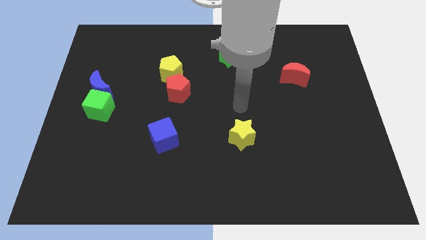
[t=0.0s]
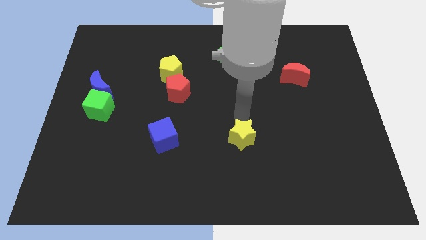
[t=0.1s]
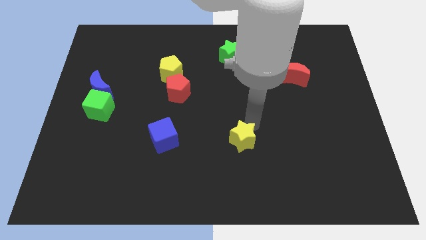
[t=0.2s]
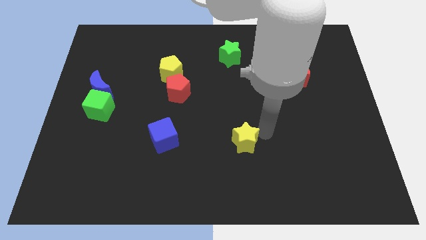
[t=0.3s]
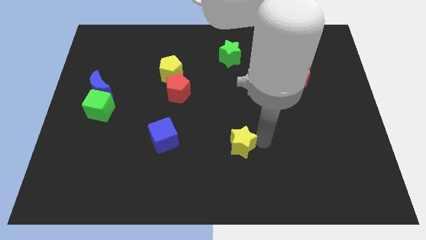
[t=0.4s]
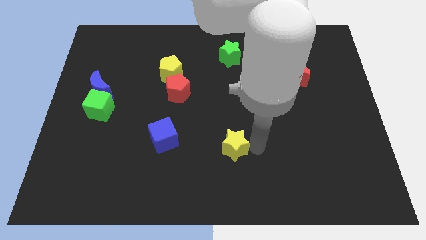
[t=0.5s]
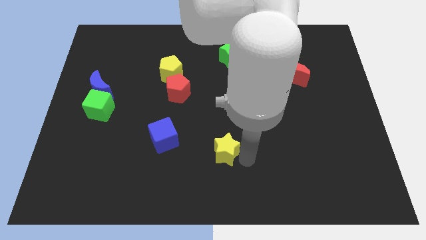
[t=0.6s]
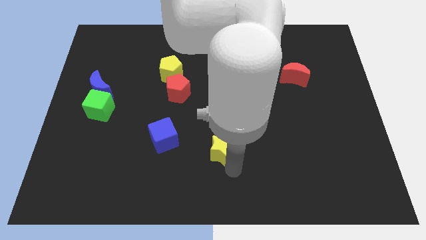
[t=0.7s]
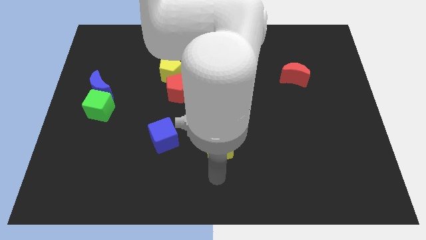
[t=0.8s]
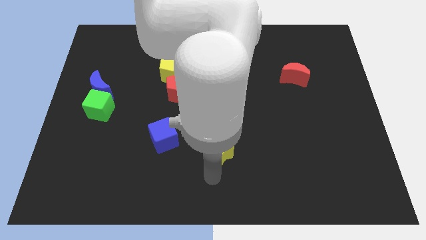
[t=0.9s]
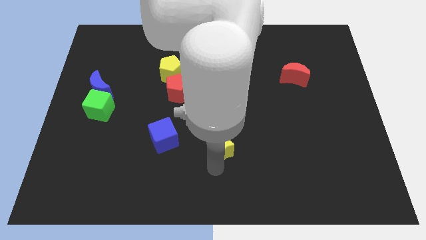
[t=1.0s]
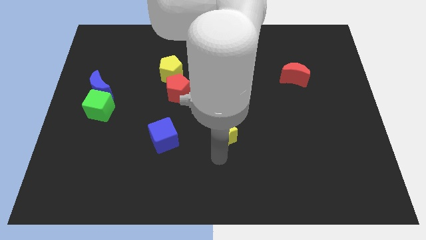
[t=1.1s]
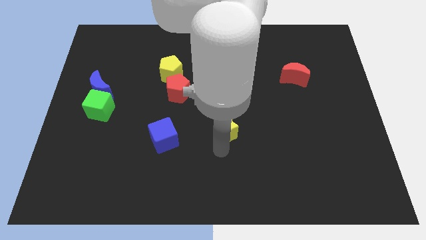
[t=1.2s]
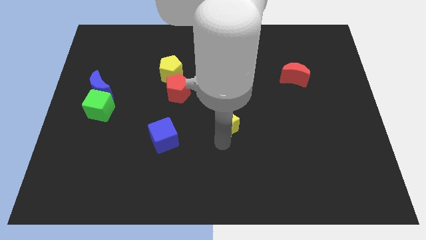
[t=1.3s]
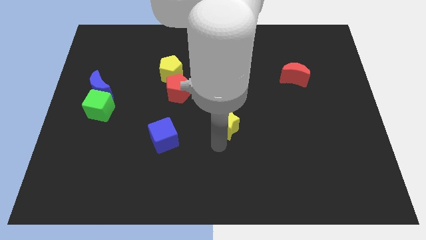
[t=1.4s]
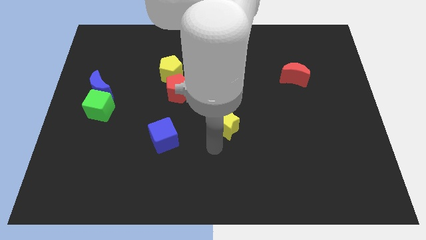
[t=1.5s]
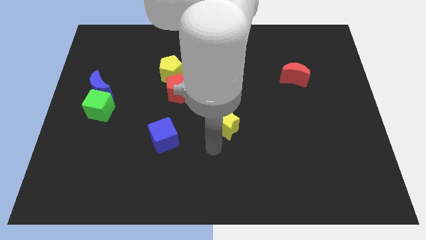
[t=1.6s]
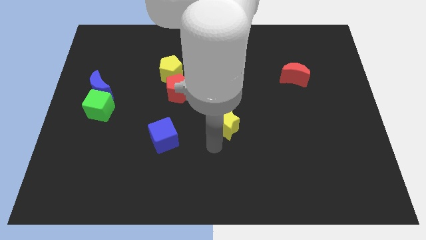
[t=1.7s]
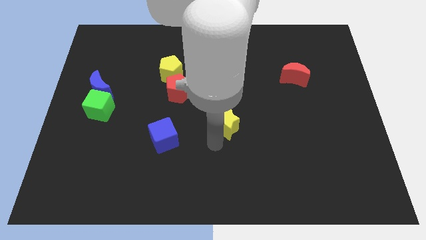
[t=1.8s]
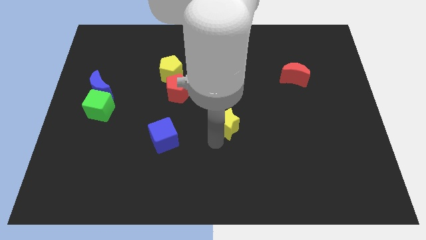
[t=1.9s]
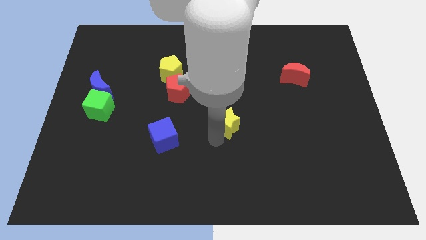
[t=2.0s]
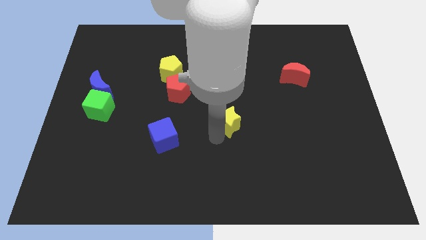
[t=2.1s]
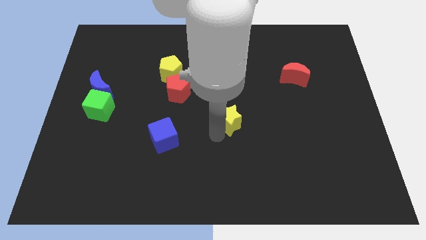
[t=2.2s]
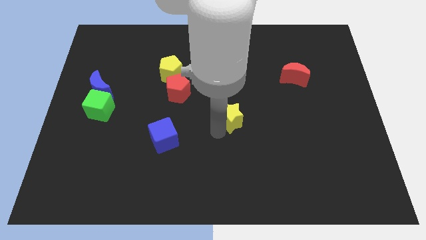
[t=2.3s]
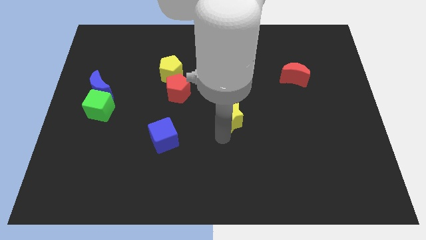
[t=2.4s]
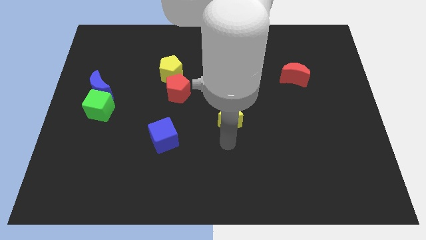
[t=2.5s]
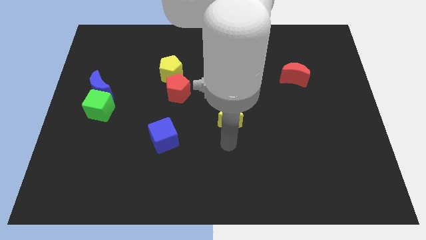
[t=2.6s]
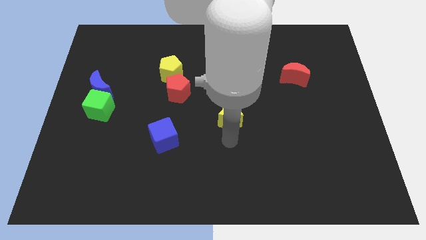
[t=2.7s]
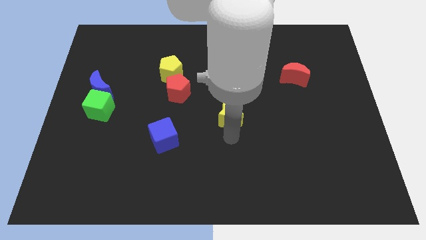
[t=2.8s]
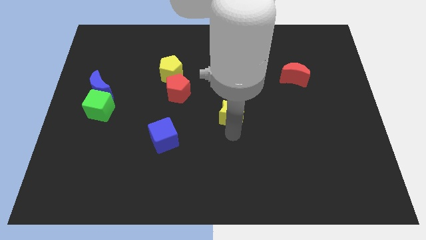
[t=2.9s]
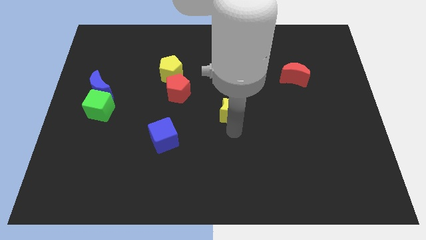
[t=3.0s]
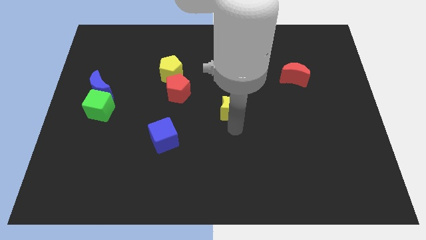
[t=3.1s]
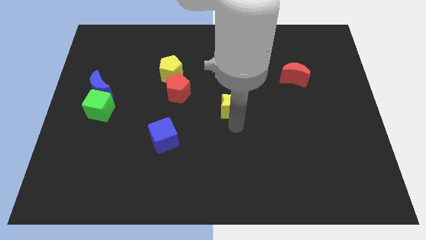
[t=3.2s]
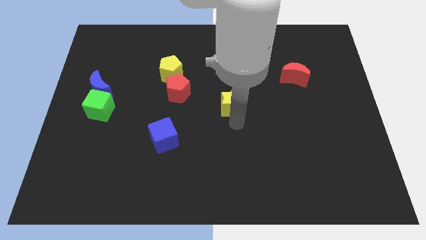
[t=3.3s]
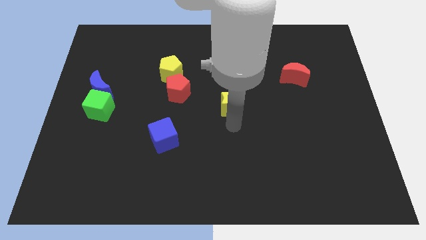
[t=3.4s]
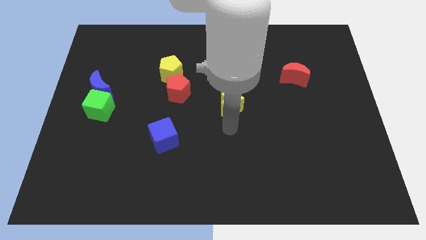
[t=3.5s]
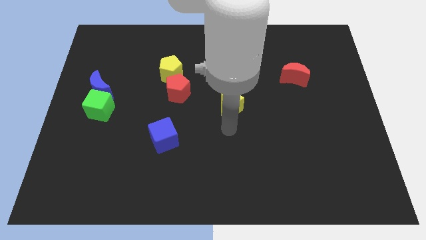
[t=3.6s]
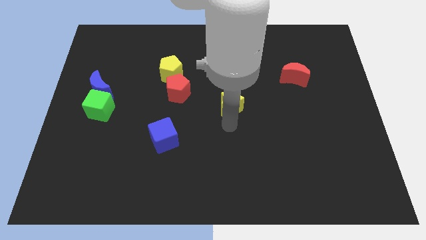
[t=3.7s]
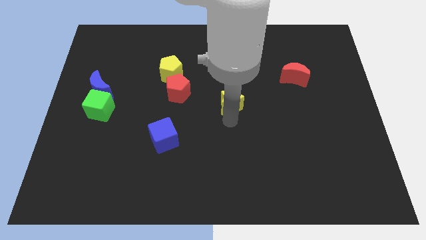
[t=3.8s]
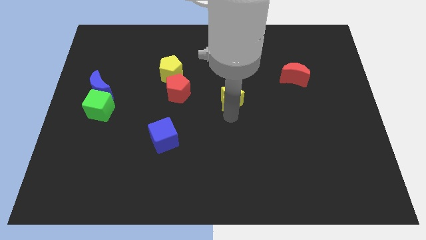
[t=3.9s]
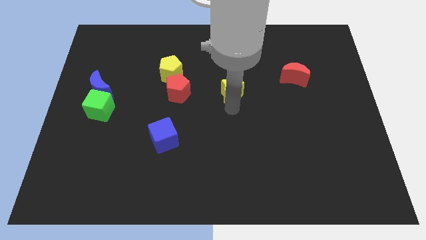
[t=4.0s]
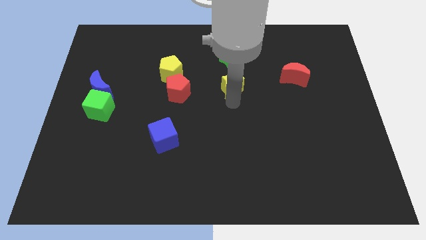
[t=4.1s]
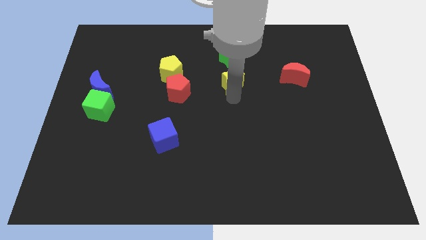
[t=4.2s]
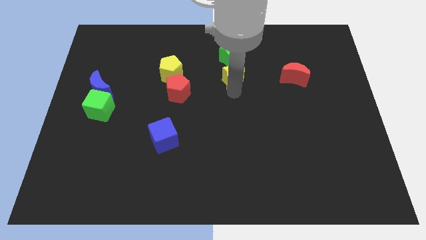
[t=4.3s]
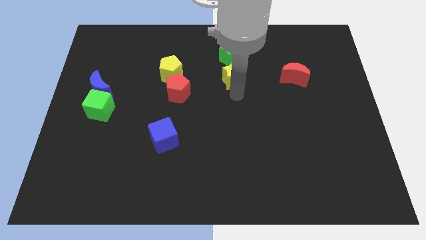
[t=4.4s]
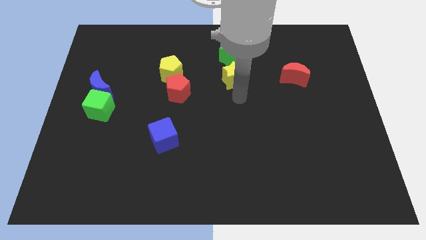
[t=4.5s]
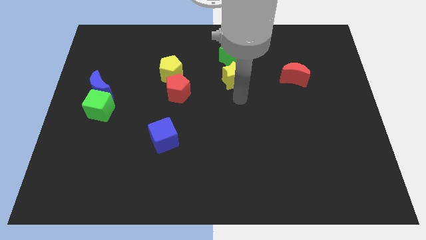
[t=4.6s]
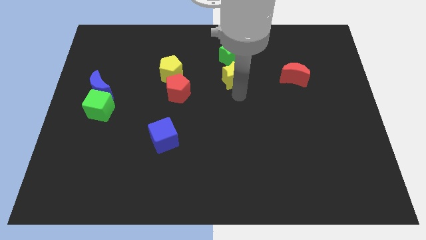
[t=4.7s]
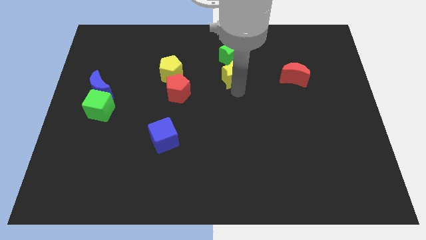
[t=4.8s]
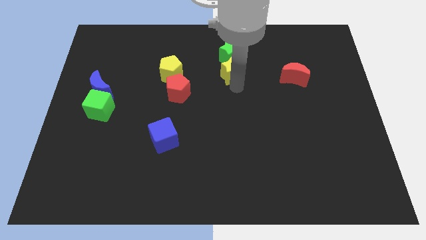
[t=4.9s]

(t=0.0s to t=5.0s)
push the yellow star next to the green star

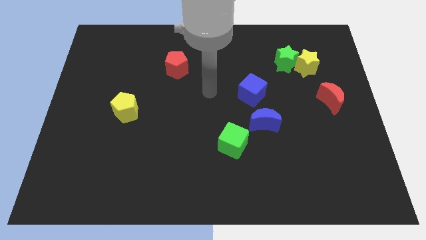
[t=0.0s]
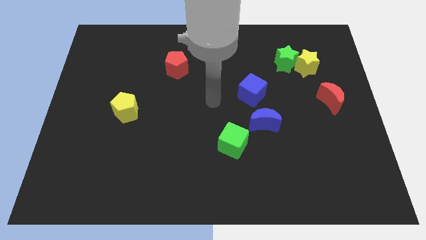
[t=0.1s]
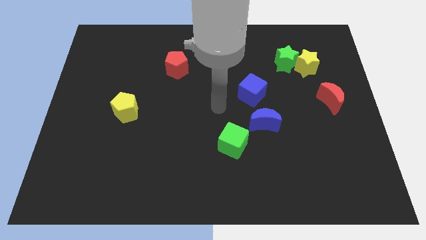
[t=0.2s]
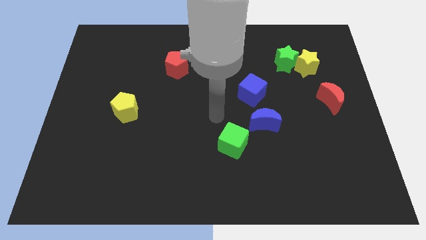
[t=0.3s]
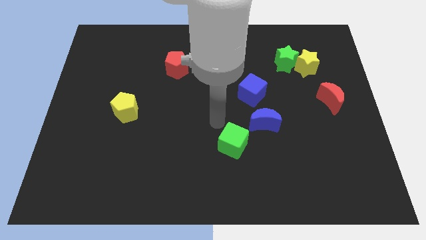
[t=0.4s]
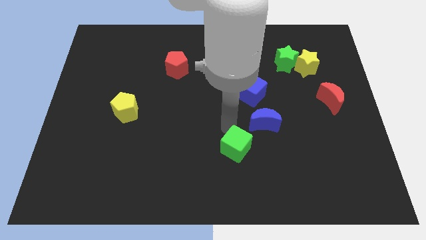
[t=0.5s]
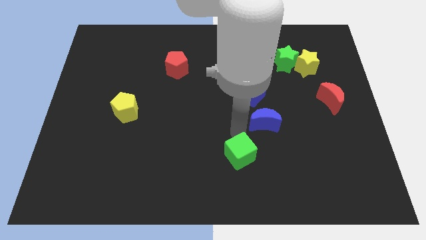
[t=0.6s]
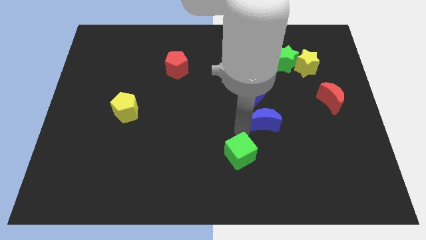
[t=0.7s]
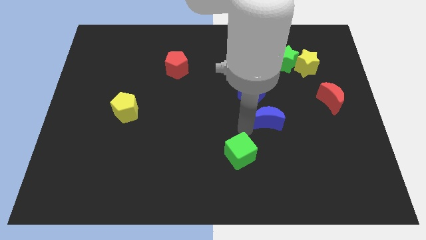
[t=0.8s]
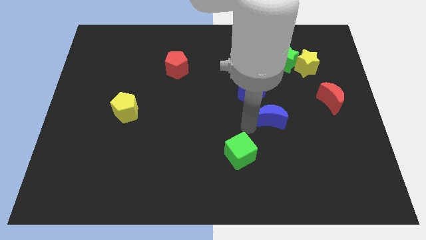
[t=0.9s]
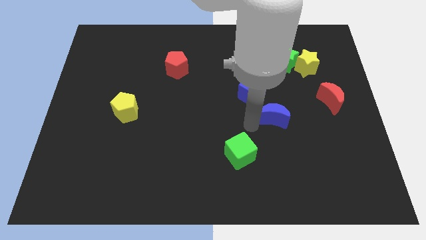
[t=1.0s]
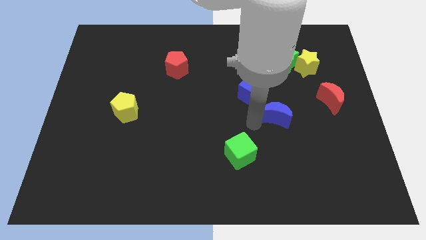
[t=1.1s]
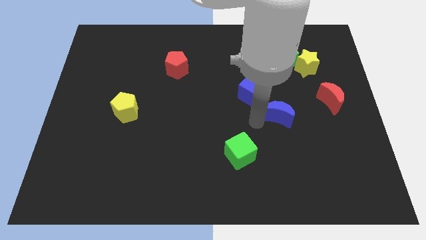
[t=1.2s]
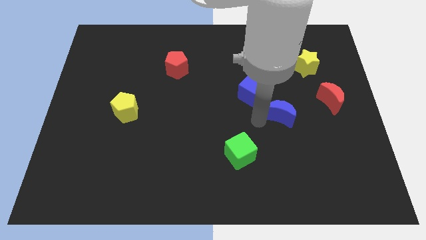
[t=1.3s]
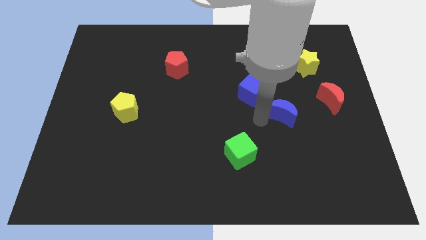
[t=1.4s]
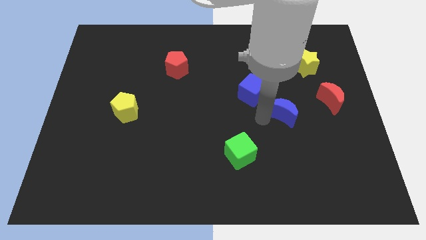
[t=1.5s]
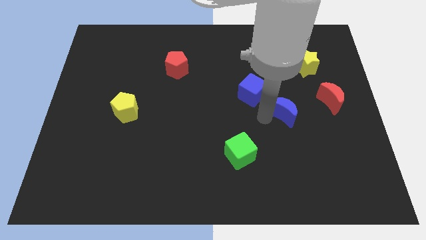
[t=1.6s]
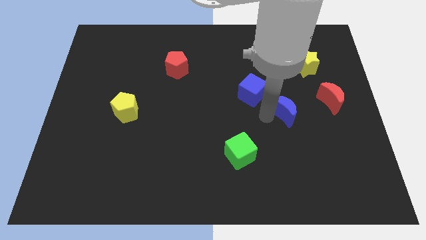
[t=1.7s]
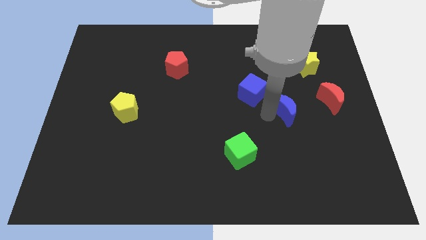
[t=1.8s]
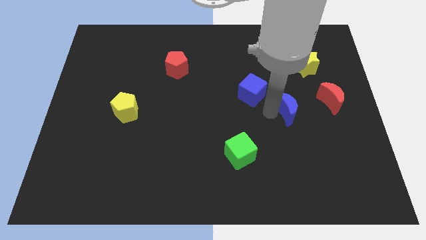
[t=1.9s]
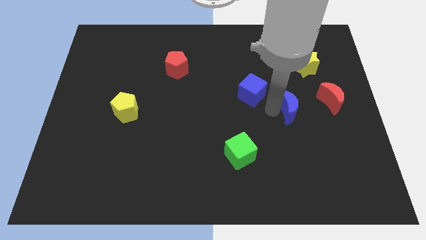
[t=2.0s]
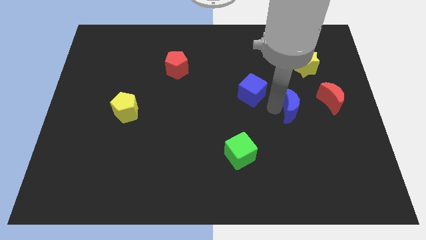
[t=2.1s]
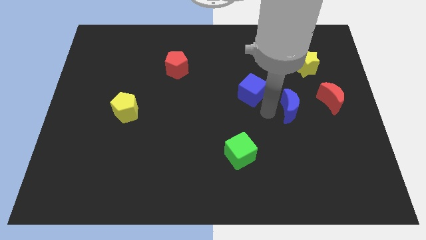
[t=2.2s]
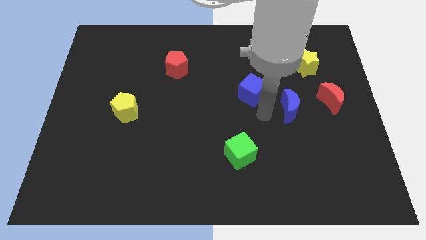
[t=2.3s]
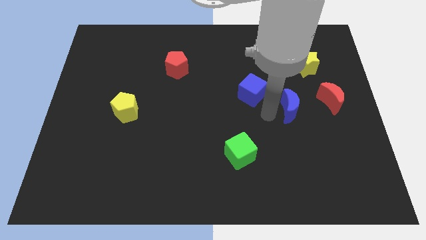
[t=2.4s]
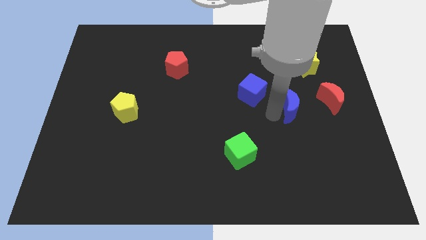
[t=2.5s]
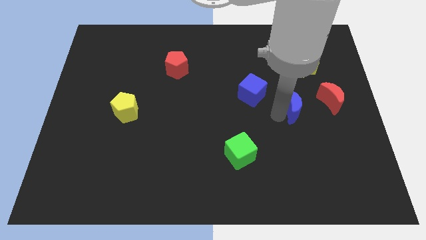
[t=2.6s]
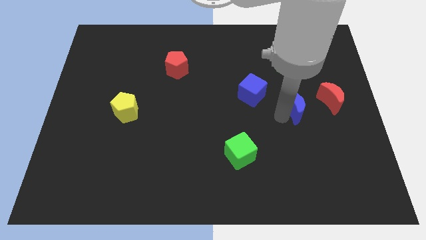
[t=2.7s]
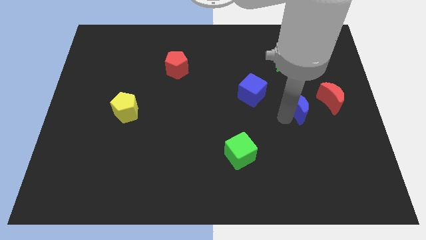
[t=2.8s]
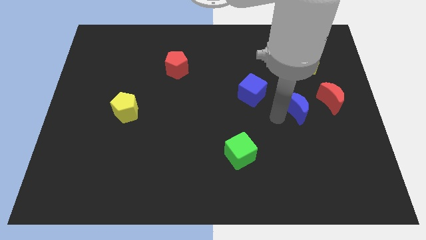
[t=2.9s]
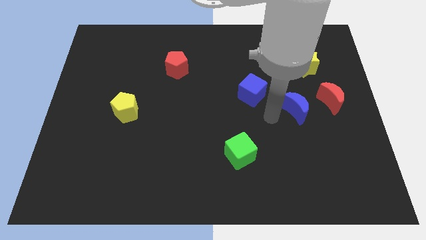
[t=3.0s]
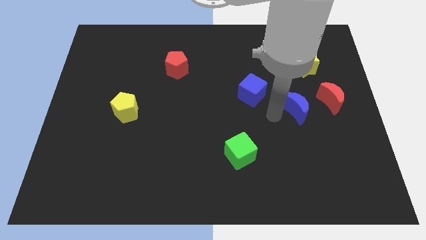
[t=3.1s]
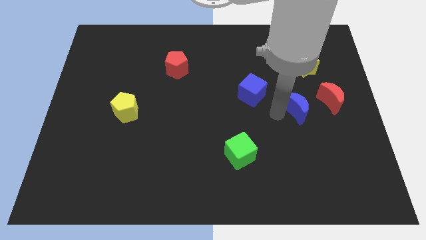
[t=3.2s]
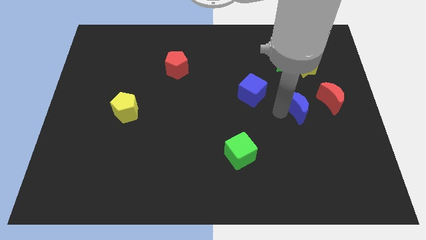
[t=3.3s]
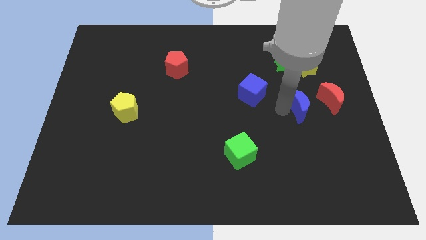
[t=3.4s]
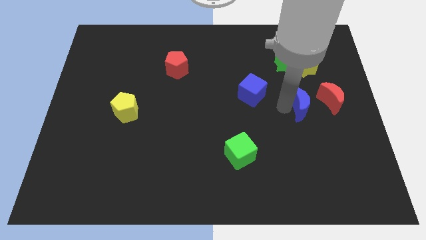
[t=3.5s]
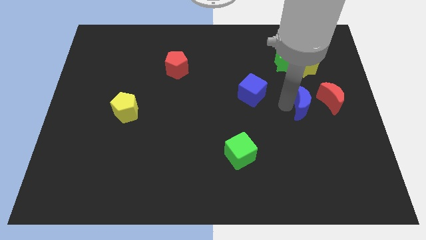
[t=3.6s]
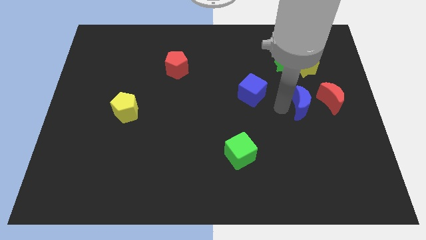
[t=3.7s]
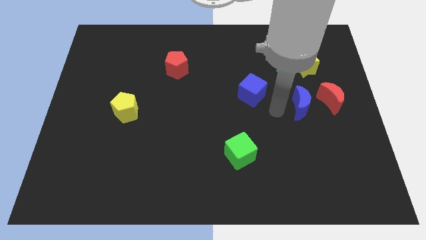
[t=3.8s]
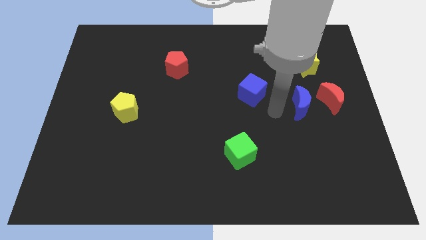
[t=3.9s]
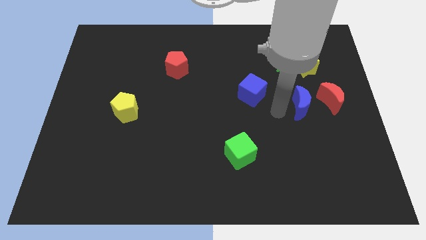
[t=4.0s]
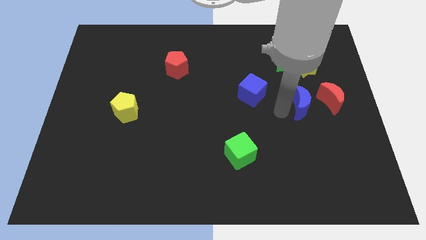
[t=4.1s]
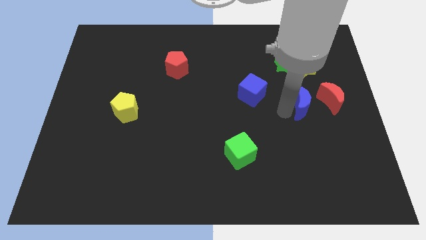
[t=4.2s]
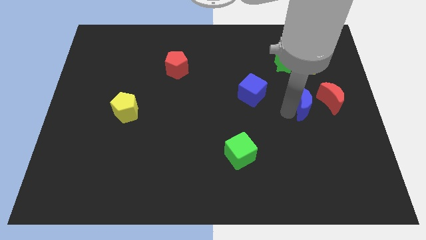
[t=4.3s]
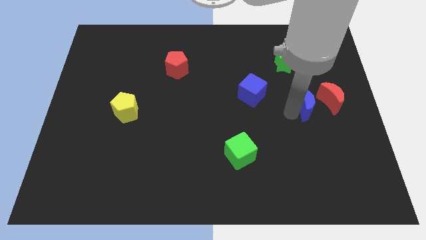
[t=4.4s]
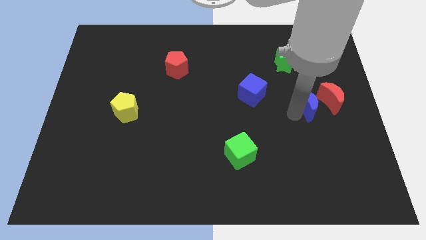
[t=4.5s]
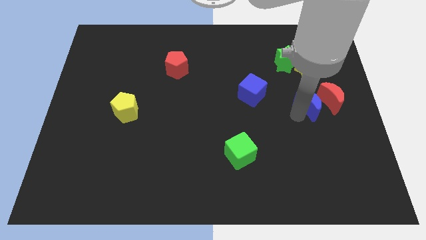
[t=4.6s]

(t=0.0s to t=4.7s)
put the blue moon towards the red moon
